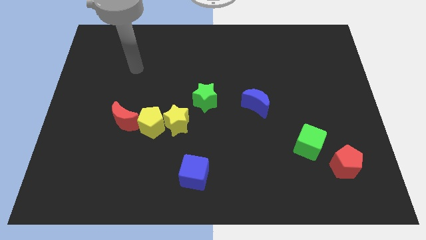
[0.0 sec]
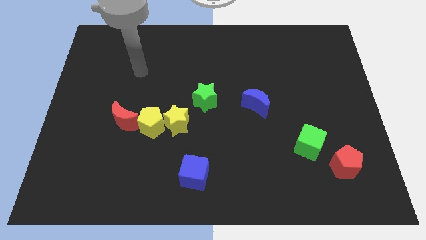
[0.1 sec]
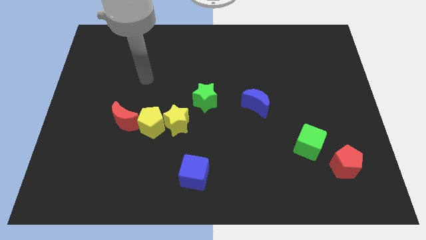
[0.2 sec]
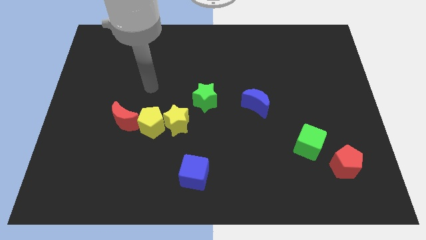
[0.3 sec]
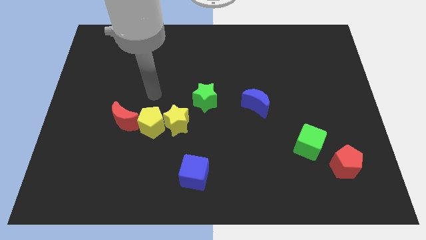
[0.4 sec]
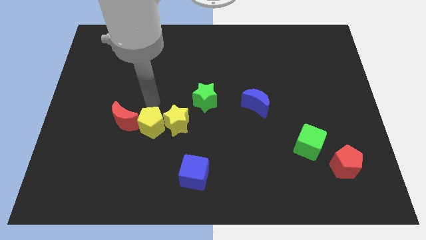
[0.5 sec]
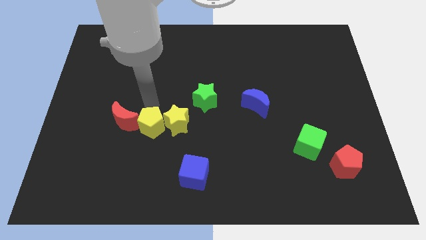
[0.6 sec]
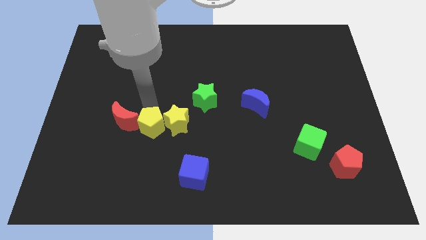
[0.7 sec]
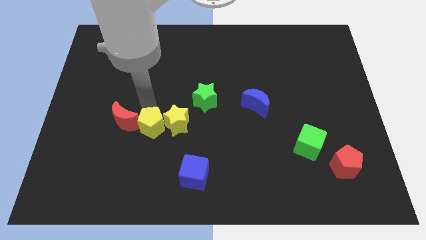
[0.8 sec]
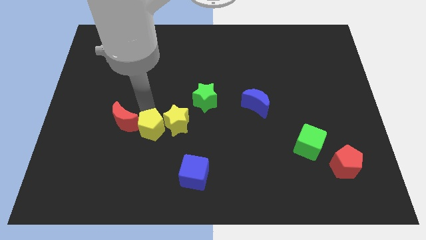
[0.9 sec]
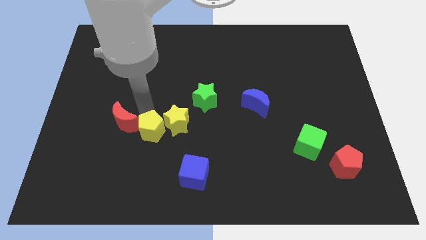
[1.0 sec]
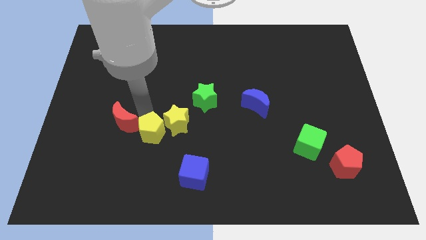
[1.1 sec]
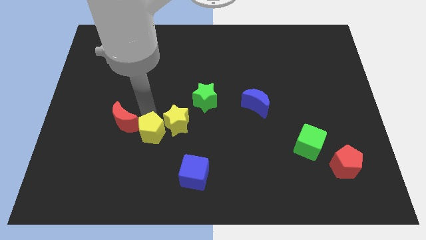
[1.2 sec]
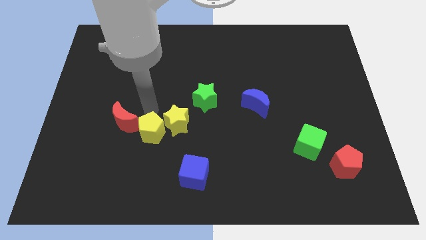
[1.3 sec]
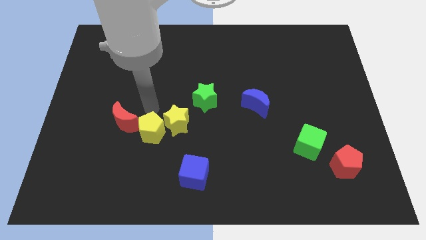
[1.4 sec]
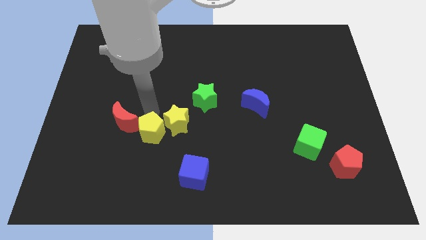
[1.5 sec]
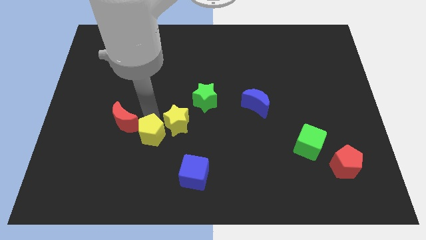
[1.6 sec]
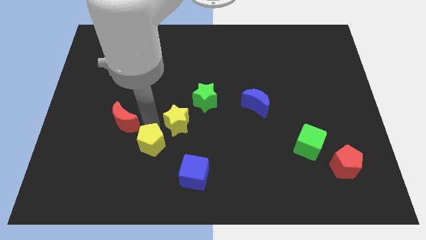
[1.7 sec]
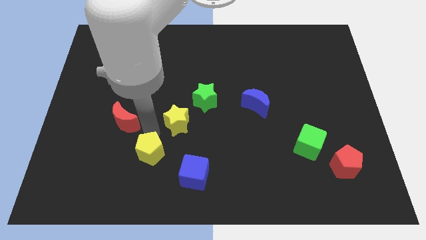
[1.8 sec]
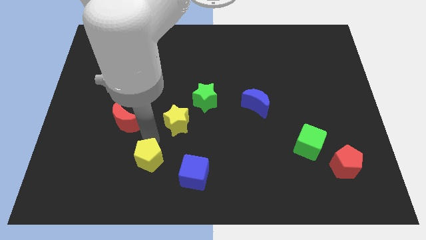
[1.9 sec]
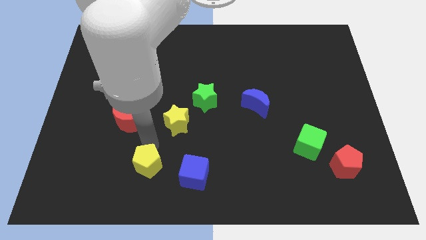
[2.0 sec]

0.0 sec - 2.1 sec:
move the yellow pentagon away from the yellow star and red moon

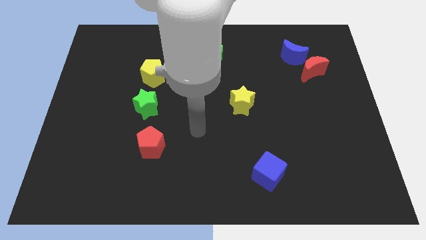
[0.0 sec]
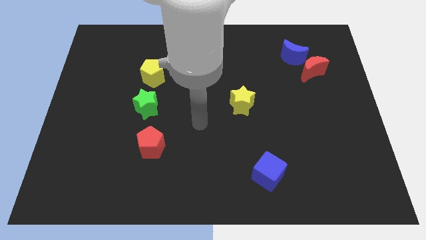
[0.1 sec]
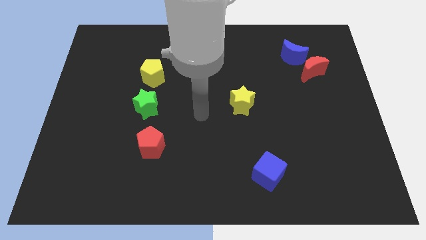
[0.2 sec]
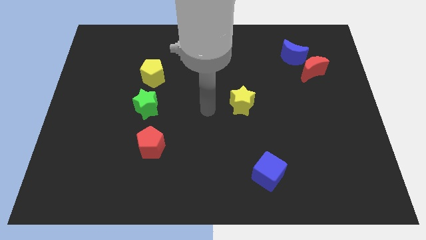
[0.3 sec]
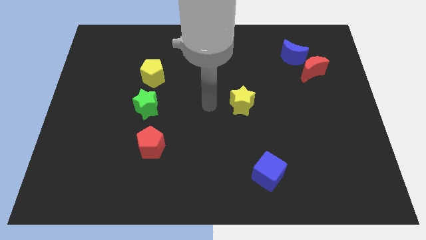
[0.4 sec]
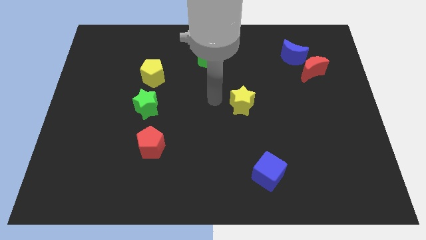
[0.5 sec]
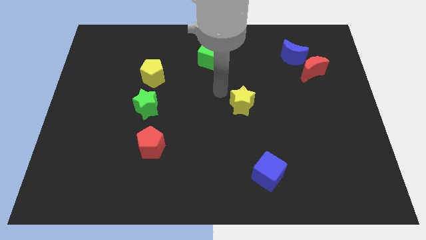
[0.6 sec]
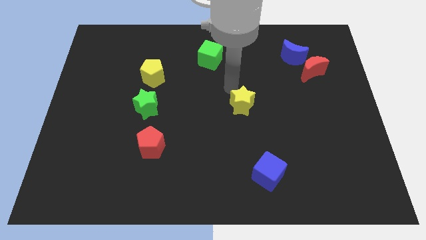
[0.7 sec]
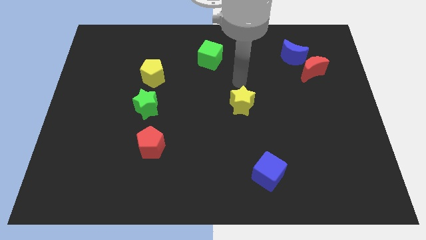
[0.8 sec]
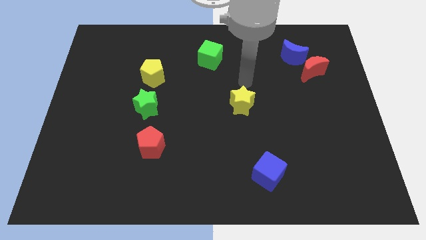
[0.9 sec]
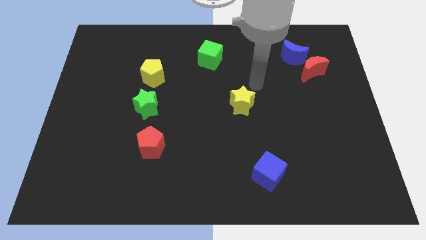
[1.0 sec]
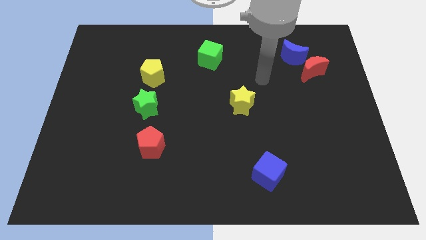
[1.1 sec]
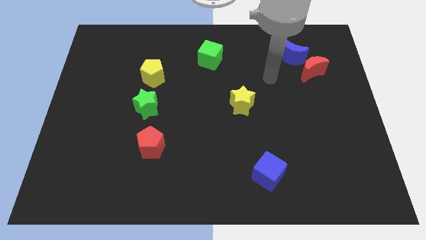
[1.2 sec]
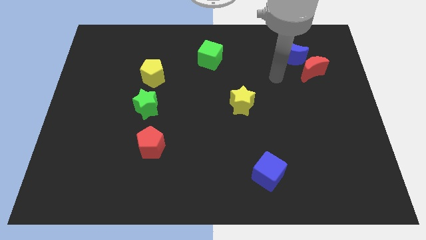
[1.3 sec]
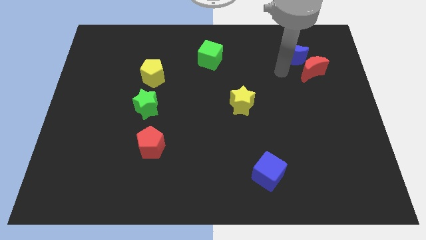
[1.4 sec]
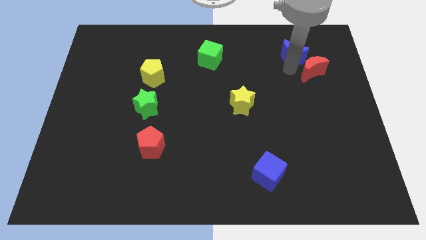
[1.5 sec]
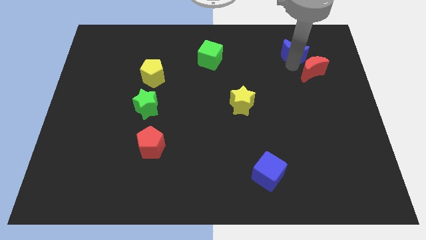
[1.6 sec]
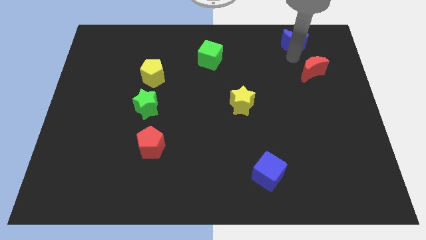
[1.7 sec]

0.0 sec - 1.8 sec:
move the red moon away from the blue moon

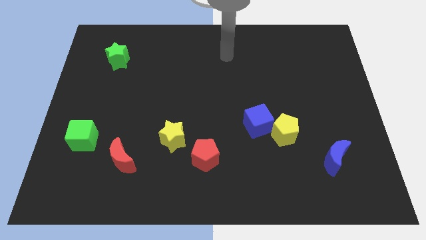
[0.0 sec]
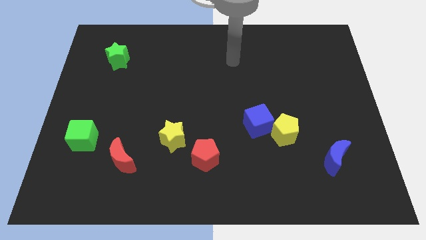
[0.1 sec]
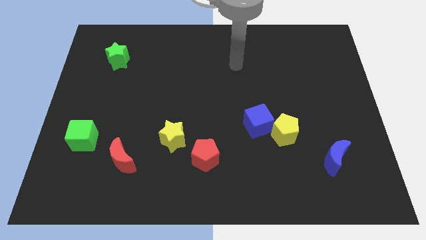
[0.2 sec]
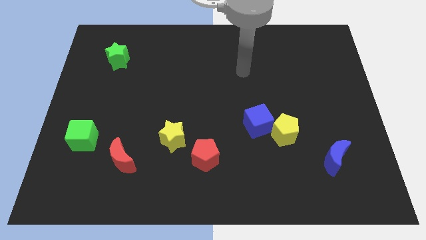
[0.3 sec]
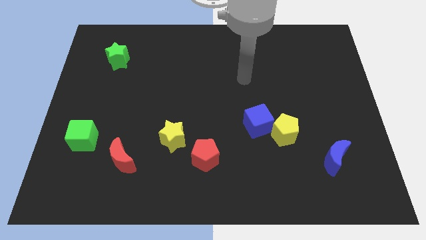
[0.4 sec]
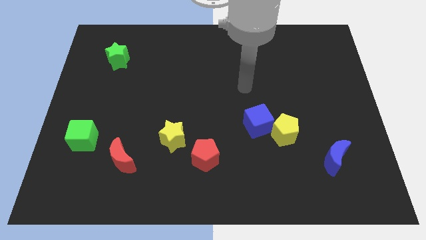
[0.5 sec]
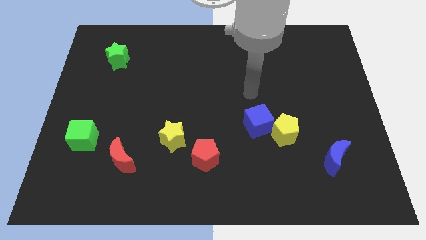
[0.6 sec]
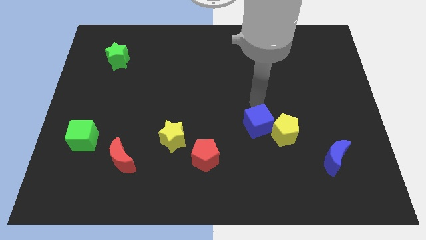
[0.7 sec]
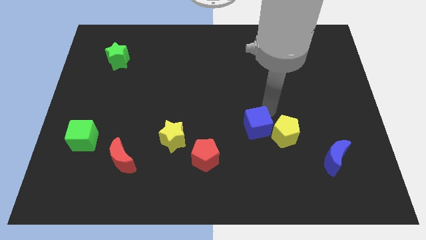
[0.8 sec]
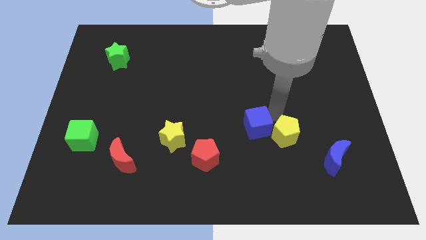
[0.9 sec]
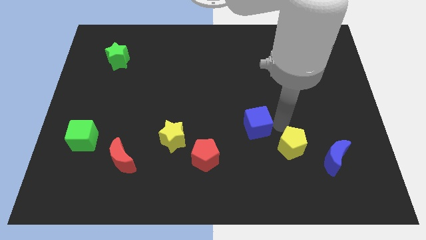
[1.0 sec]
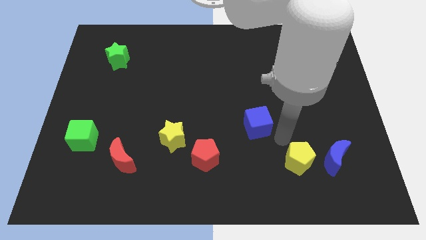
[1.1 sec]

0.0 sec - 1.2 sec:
move the blue cube away from the yellow pentagon

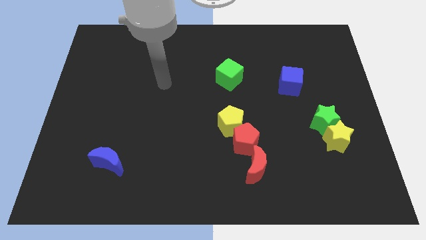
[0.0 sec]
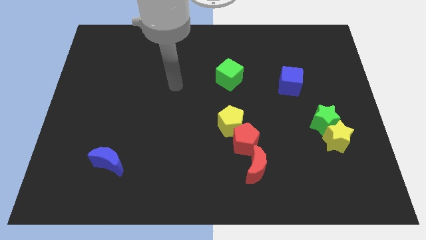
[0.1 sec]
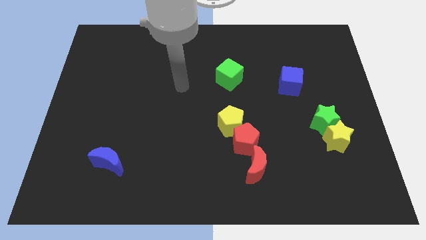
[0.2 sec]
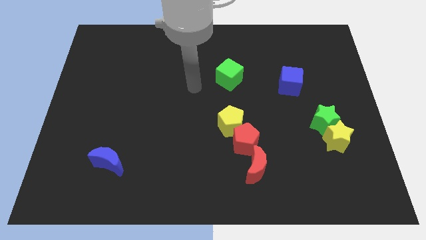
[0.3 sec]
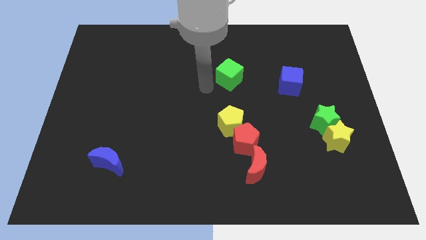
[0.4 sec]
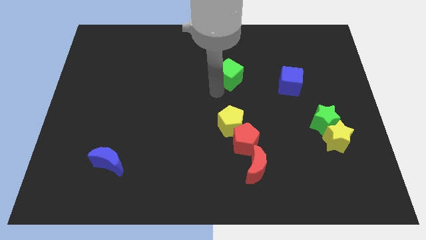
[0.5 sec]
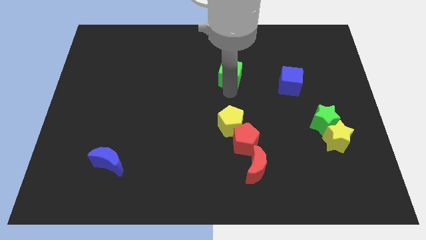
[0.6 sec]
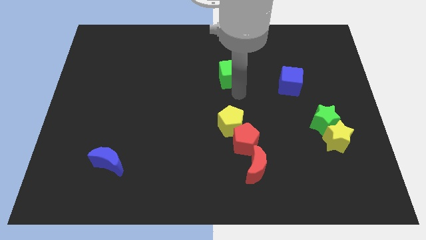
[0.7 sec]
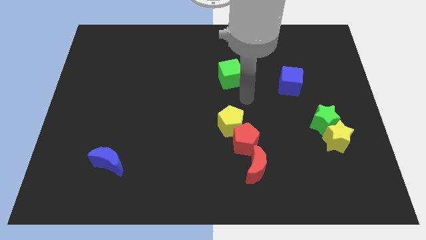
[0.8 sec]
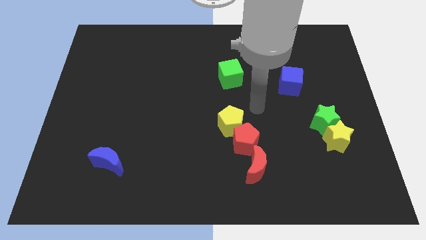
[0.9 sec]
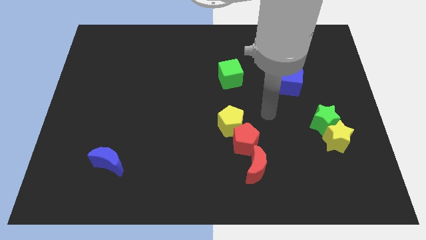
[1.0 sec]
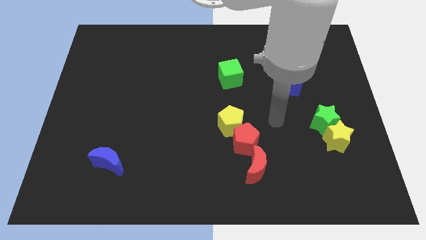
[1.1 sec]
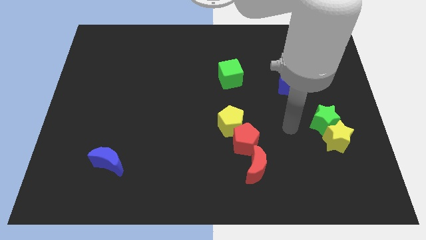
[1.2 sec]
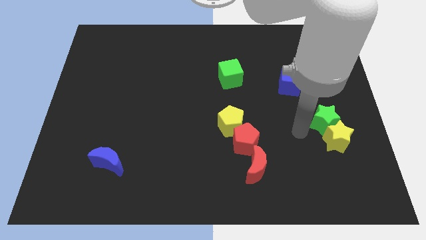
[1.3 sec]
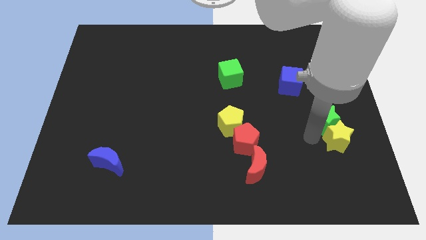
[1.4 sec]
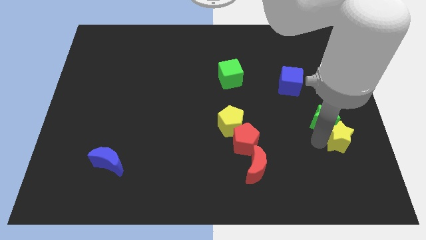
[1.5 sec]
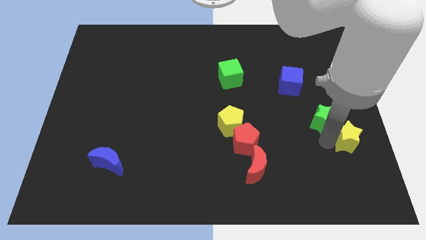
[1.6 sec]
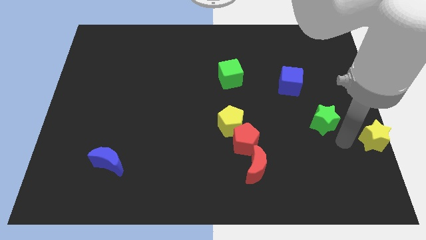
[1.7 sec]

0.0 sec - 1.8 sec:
pull the green star apart from the yellow star

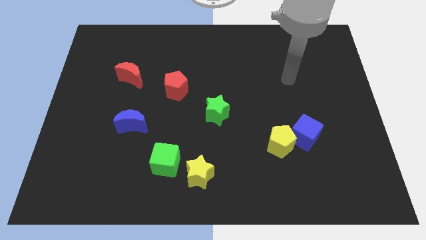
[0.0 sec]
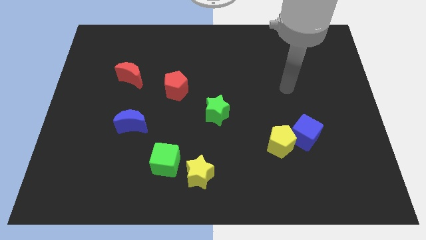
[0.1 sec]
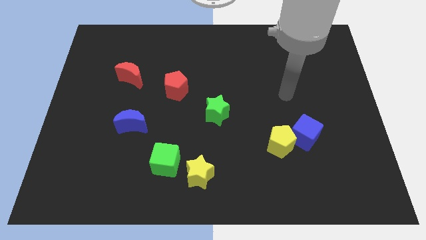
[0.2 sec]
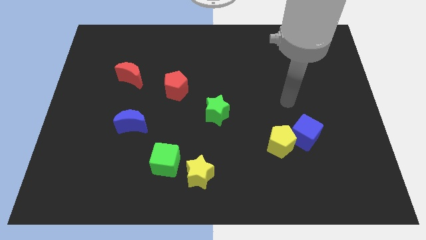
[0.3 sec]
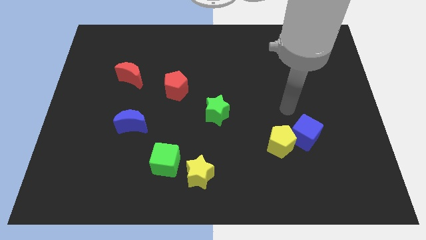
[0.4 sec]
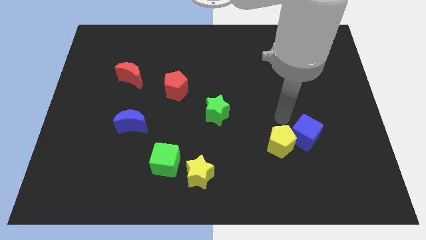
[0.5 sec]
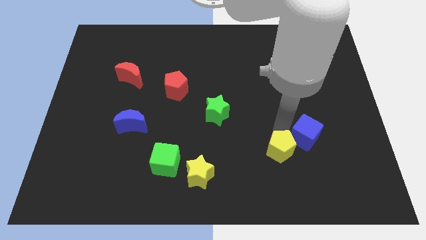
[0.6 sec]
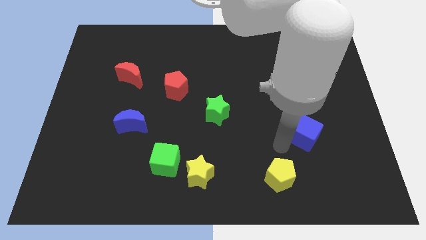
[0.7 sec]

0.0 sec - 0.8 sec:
separate the blue cube from the yellow pentagon

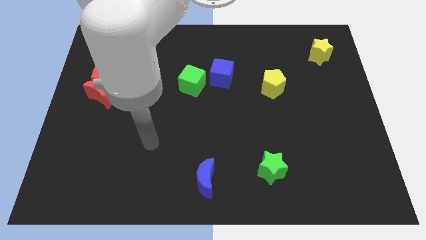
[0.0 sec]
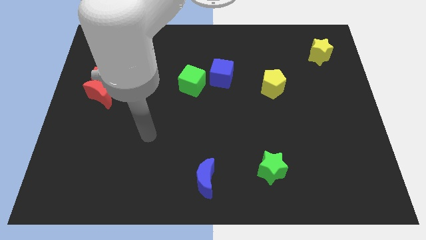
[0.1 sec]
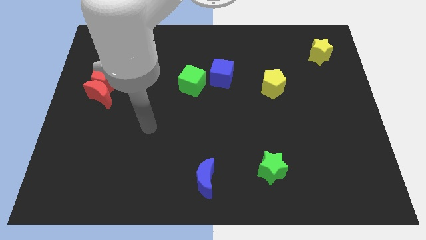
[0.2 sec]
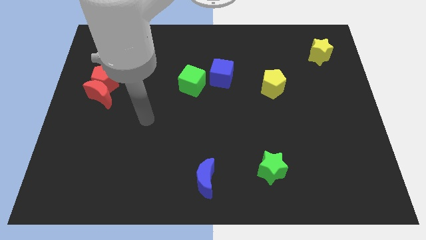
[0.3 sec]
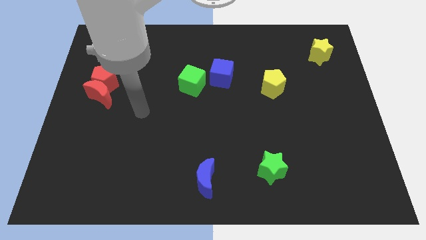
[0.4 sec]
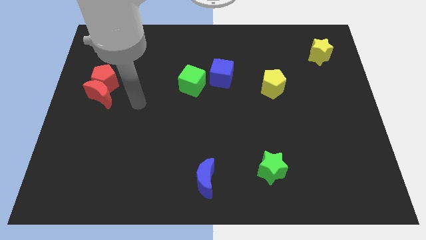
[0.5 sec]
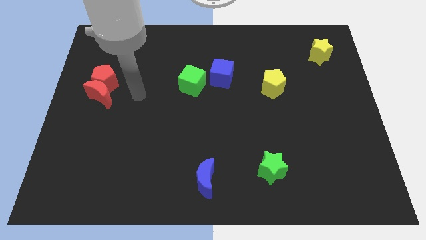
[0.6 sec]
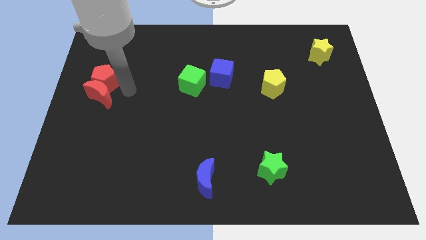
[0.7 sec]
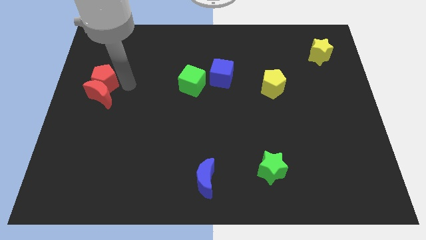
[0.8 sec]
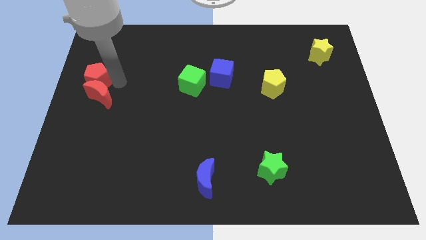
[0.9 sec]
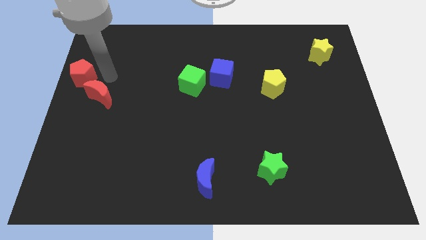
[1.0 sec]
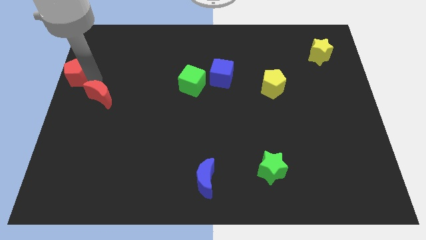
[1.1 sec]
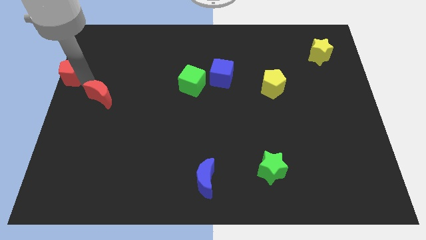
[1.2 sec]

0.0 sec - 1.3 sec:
pull the red moon apart from the red pentagon

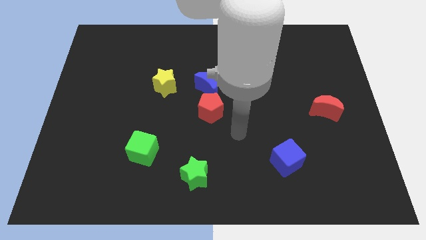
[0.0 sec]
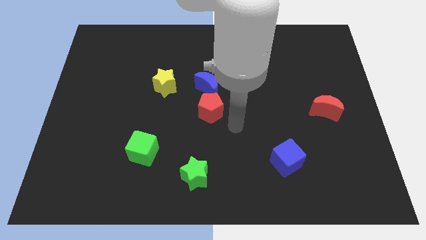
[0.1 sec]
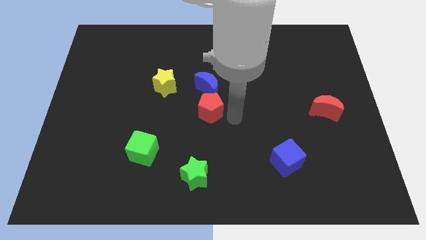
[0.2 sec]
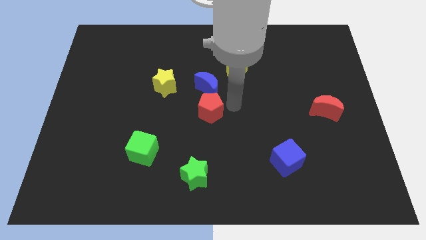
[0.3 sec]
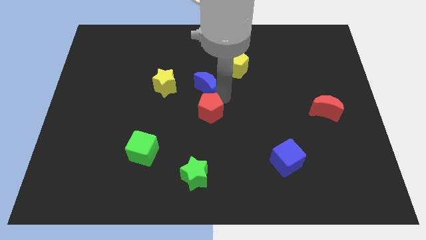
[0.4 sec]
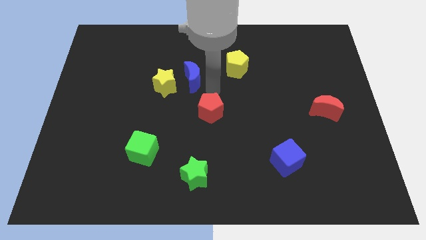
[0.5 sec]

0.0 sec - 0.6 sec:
pull the red pentagon apart from the blue moon
